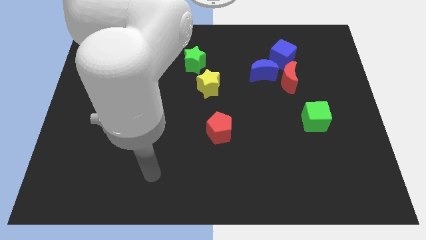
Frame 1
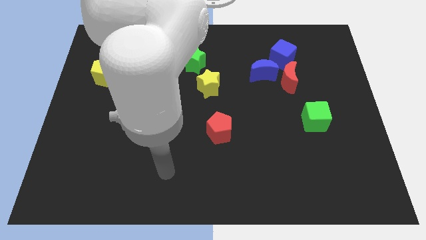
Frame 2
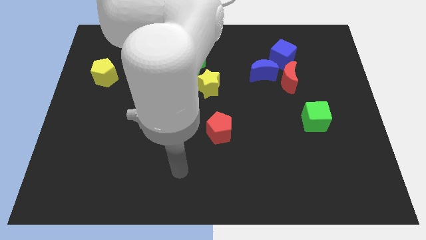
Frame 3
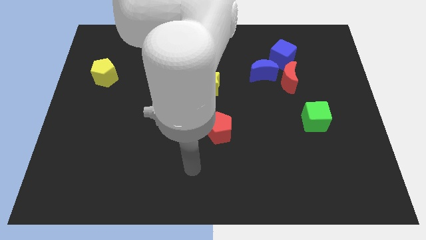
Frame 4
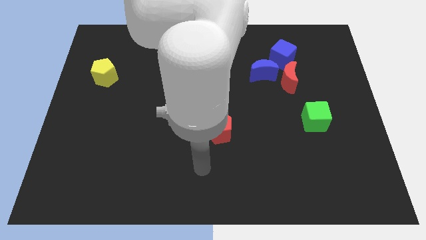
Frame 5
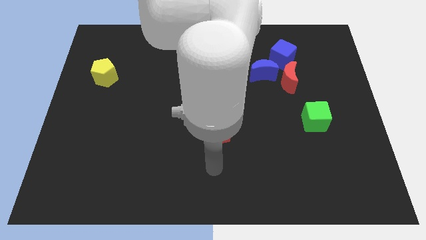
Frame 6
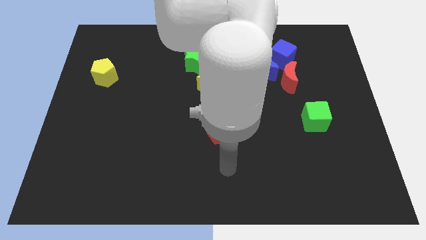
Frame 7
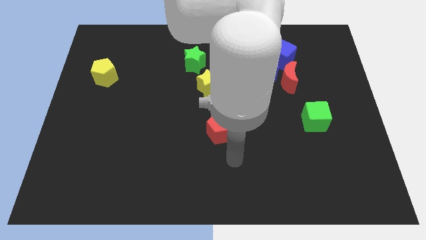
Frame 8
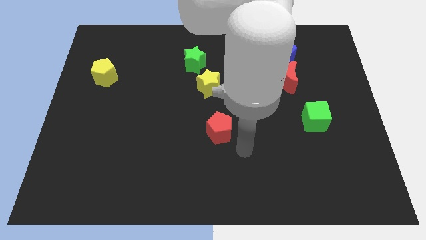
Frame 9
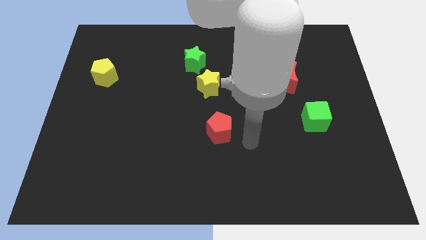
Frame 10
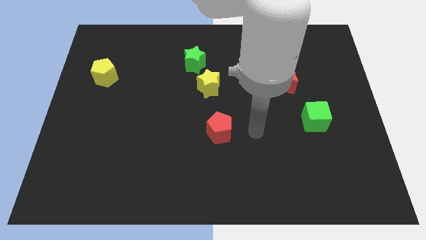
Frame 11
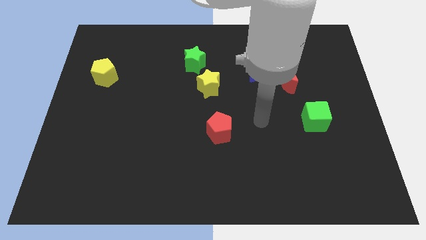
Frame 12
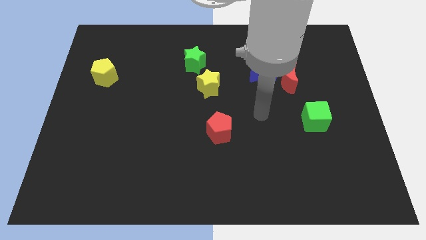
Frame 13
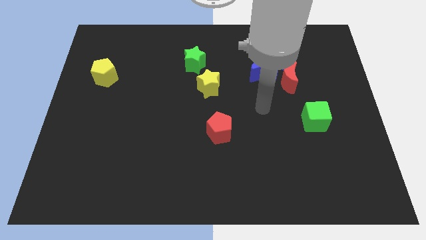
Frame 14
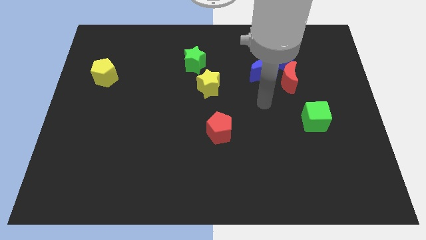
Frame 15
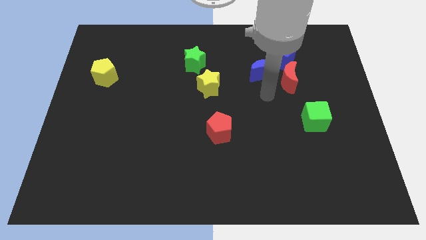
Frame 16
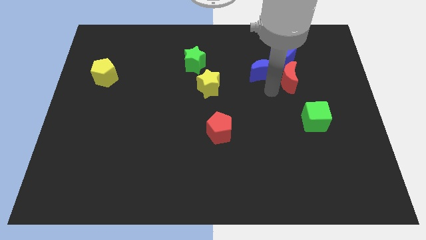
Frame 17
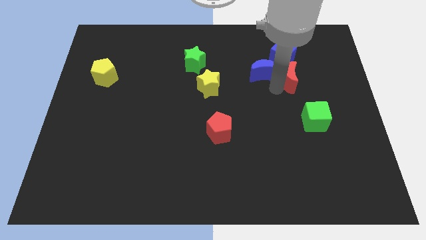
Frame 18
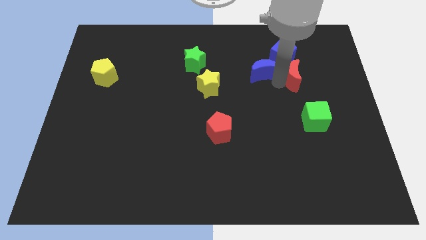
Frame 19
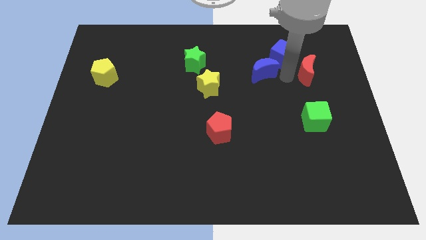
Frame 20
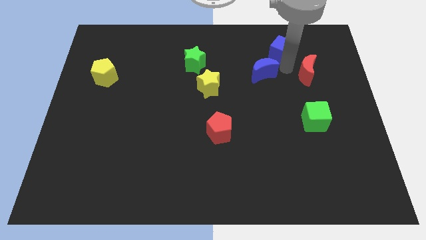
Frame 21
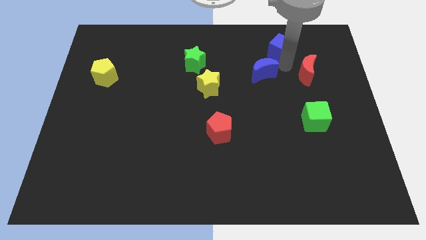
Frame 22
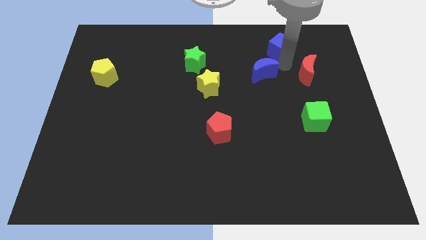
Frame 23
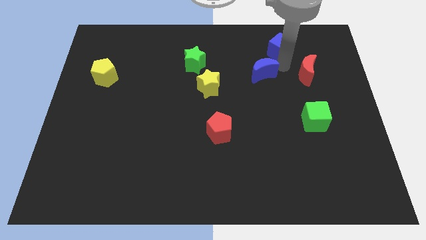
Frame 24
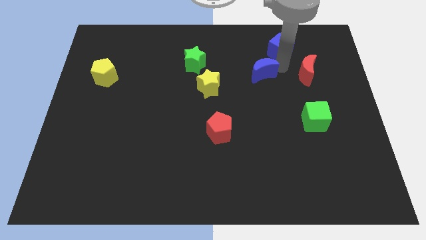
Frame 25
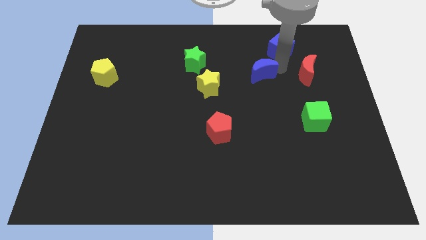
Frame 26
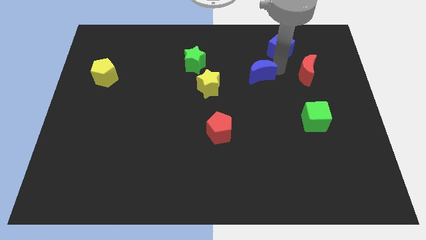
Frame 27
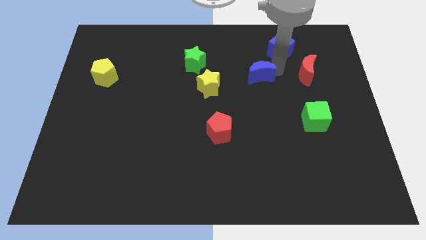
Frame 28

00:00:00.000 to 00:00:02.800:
move the blue moon away from the red moon and blue cube

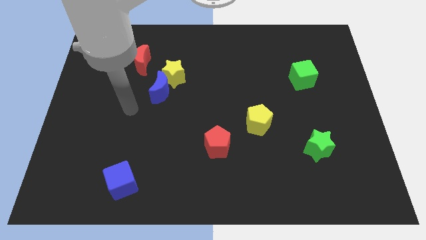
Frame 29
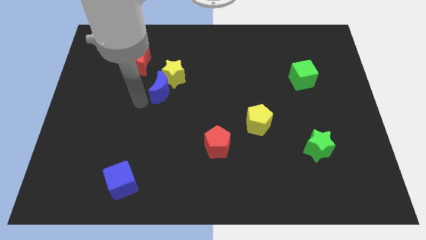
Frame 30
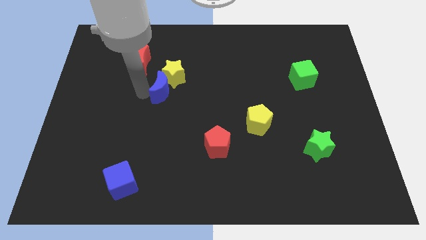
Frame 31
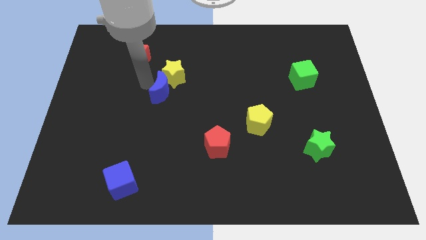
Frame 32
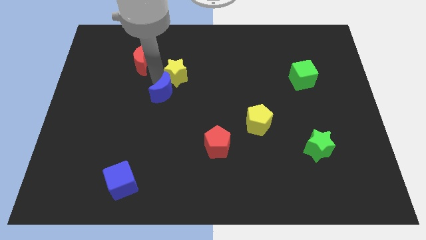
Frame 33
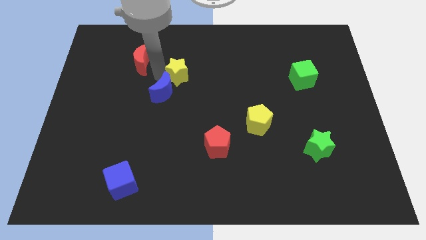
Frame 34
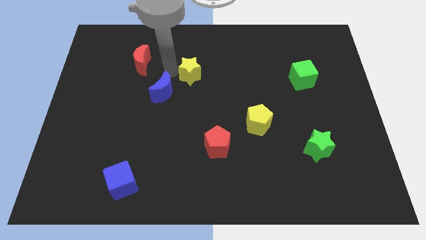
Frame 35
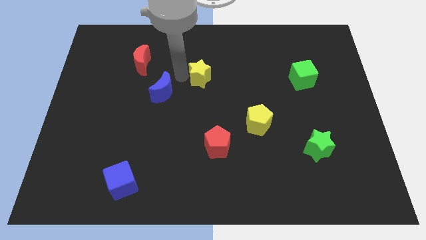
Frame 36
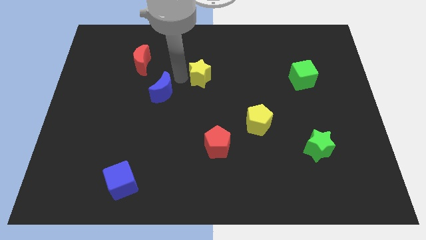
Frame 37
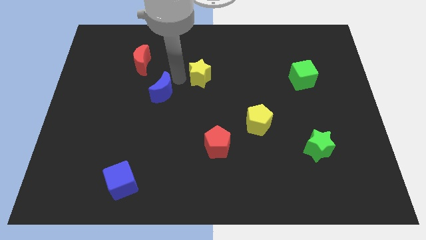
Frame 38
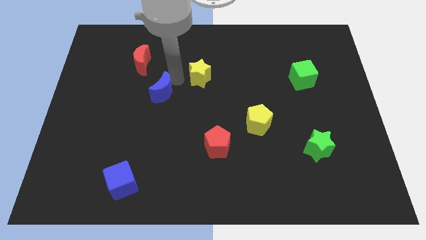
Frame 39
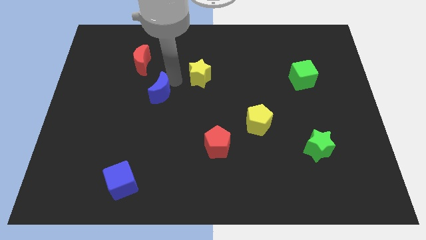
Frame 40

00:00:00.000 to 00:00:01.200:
pull the blue moon apart from the yellow star

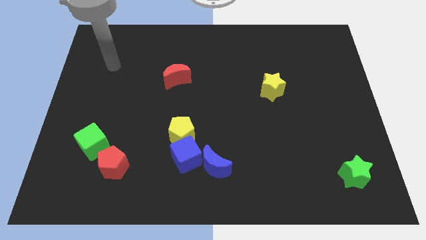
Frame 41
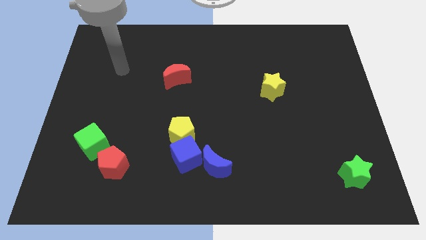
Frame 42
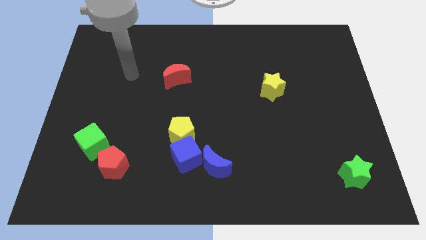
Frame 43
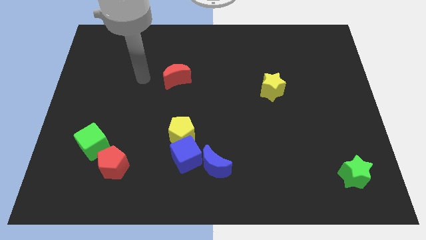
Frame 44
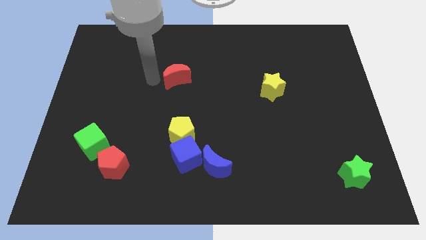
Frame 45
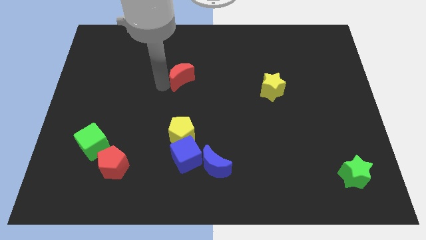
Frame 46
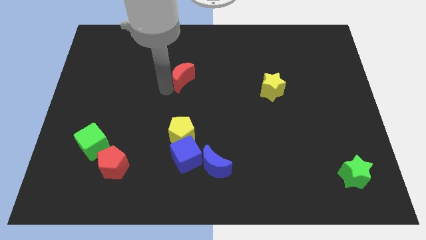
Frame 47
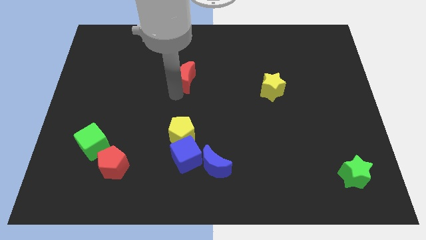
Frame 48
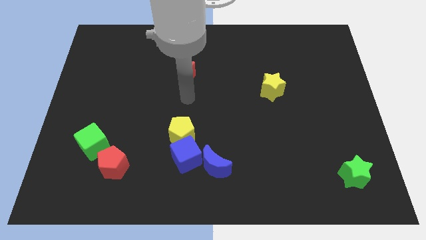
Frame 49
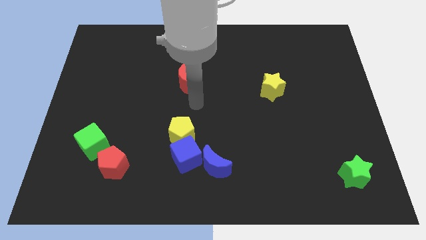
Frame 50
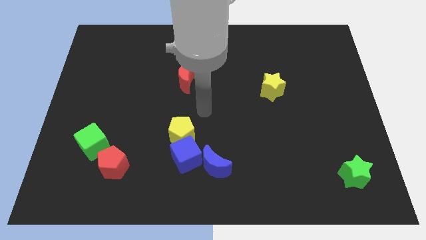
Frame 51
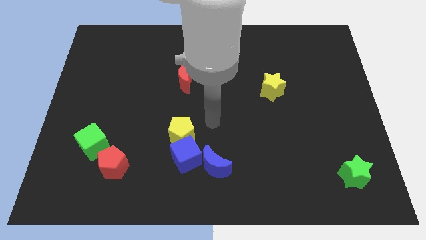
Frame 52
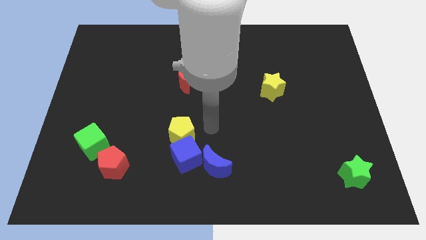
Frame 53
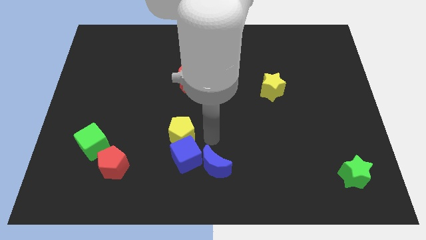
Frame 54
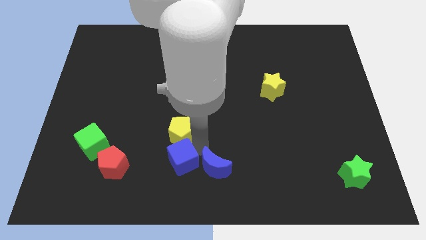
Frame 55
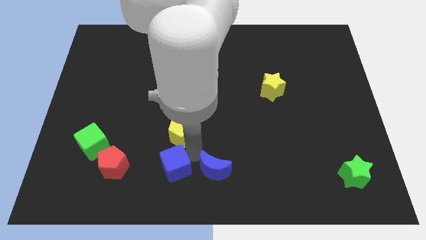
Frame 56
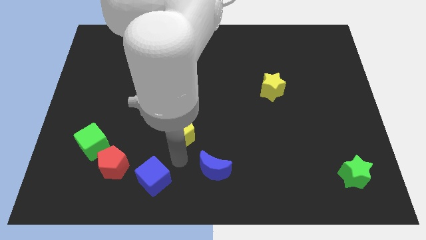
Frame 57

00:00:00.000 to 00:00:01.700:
pull the yellow pentagon apart from the blue cube

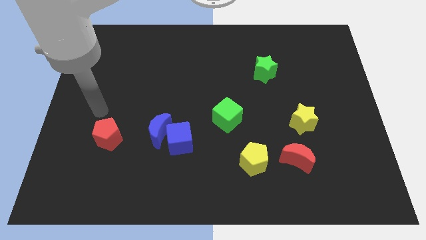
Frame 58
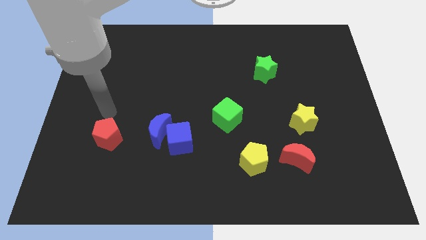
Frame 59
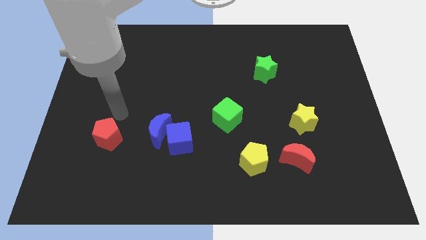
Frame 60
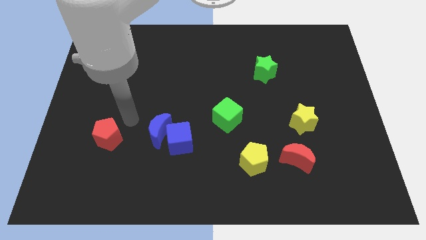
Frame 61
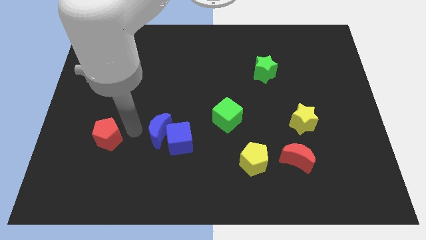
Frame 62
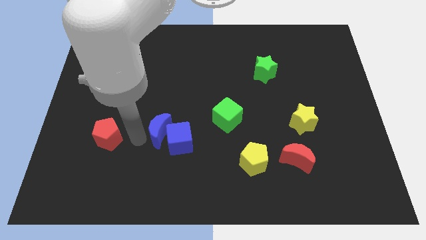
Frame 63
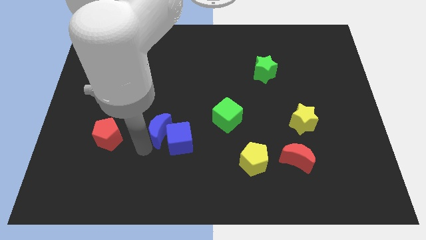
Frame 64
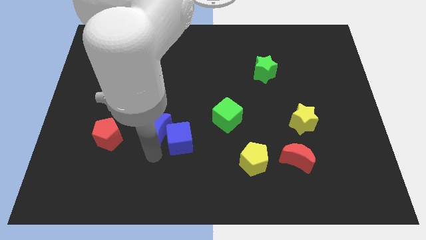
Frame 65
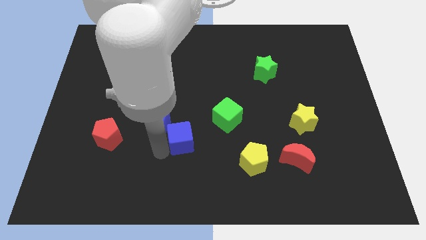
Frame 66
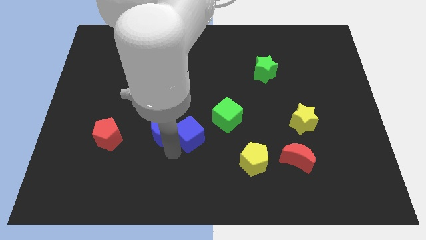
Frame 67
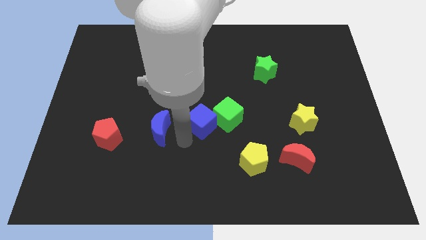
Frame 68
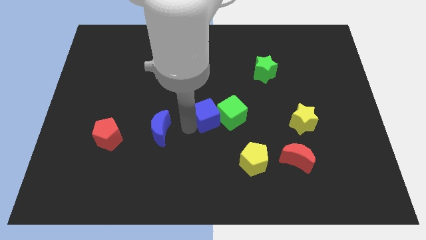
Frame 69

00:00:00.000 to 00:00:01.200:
separate the blue moon from the blue cube

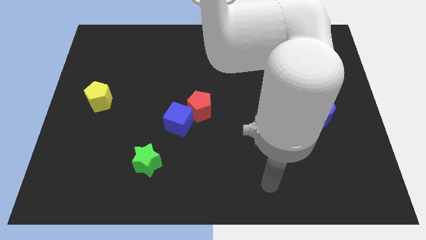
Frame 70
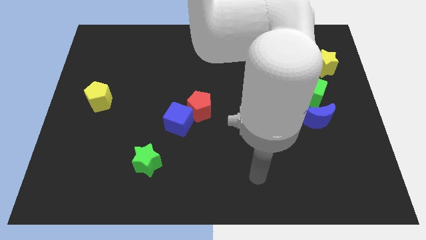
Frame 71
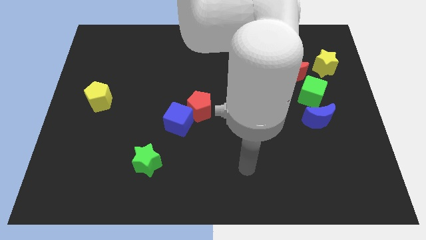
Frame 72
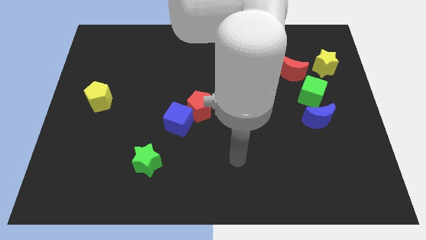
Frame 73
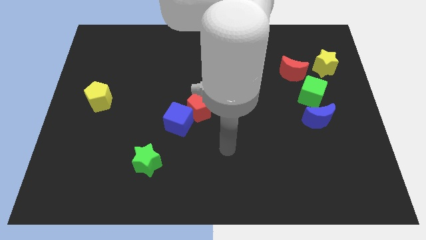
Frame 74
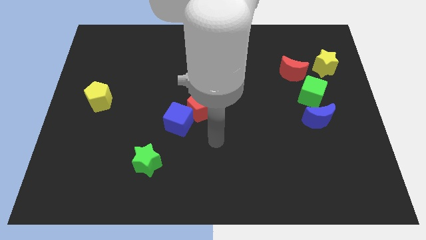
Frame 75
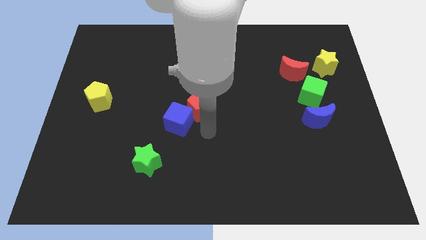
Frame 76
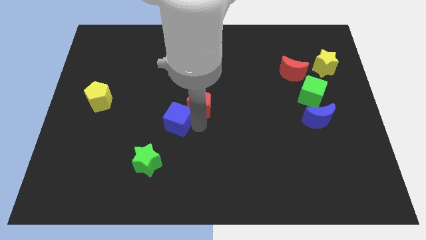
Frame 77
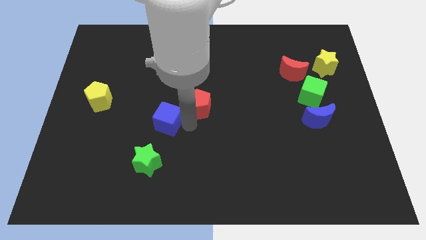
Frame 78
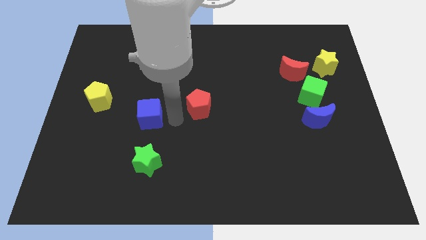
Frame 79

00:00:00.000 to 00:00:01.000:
move the red pentagon away from the blue cube

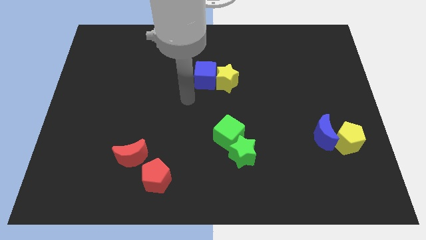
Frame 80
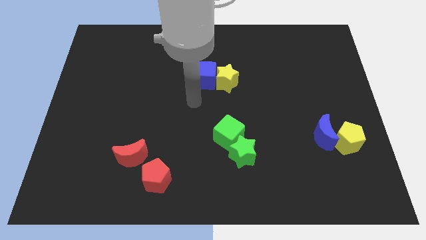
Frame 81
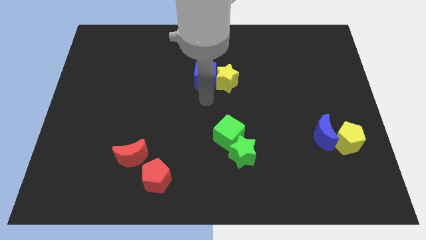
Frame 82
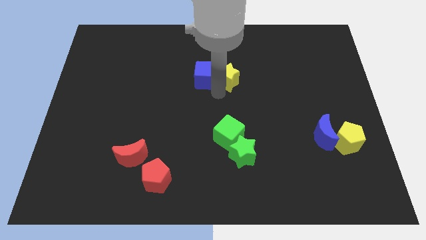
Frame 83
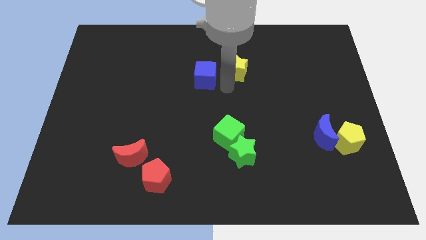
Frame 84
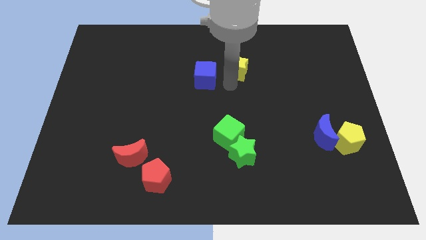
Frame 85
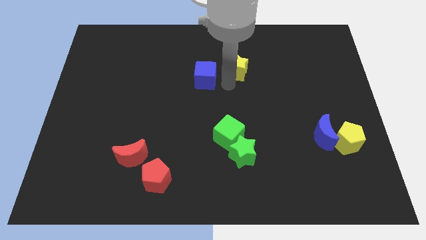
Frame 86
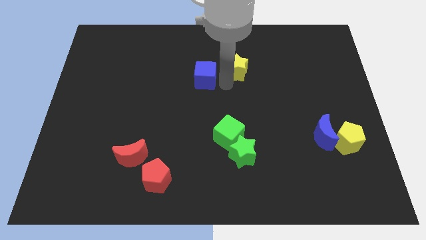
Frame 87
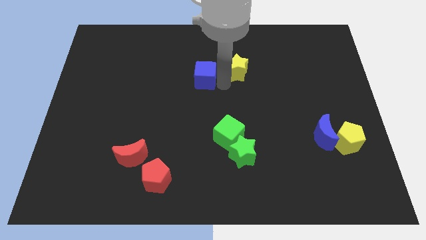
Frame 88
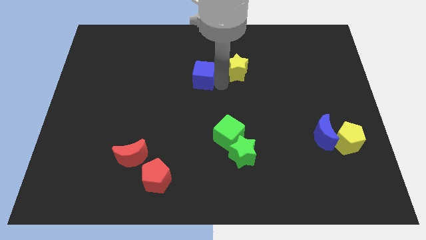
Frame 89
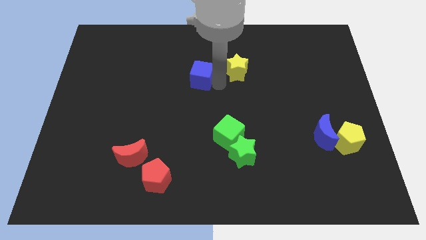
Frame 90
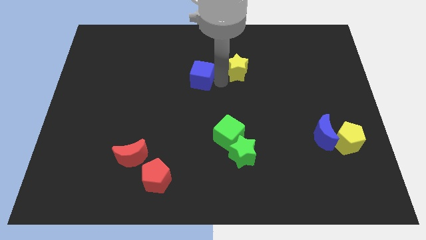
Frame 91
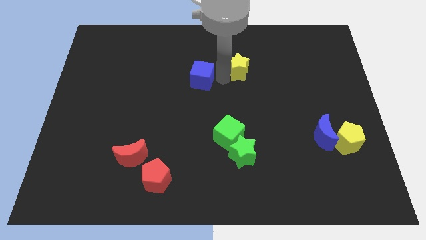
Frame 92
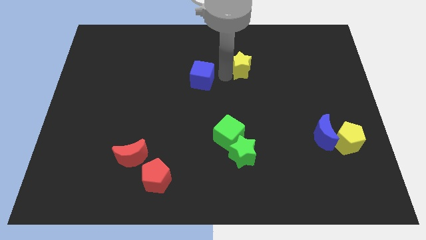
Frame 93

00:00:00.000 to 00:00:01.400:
separate the blue cube from the yellow star
